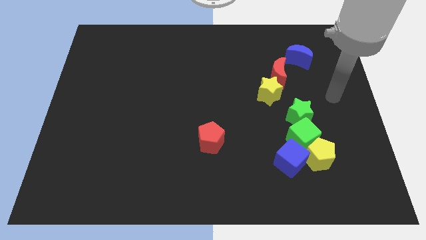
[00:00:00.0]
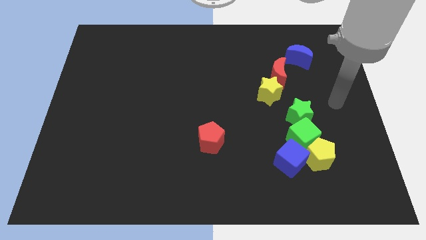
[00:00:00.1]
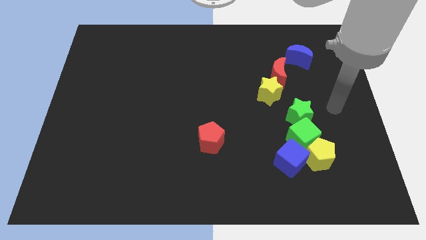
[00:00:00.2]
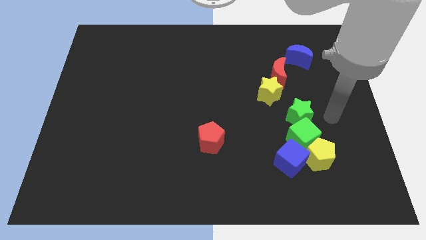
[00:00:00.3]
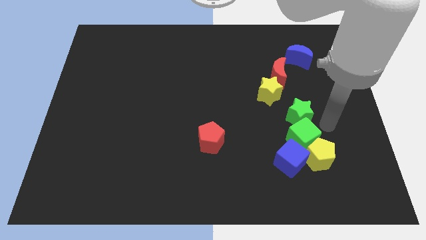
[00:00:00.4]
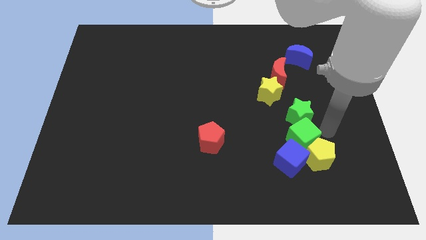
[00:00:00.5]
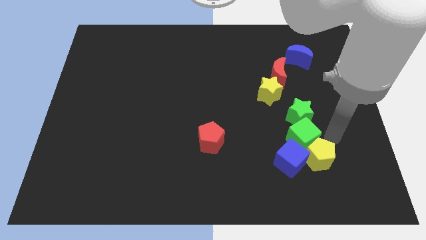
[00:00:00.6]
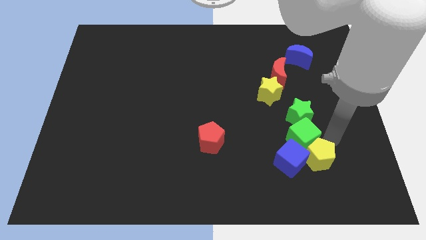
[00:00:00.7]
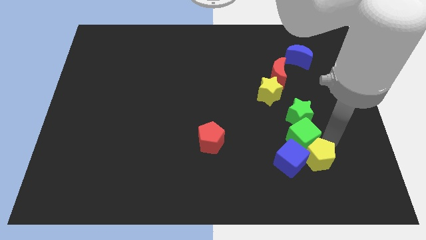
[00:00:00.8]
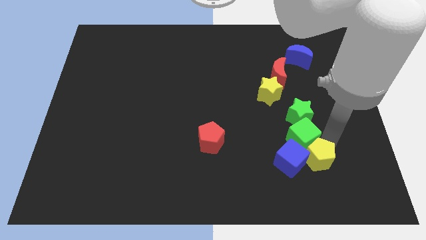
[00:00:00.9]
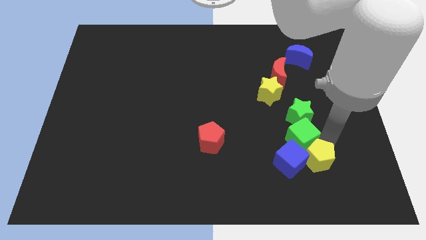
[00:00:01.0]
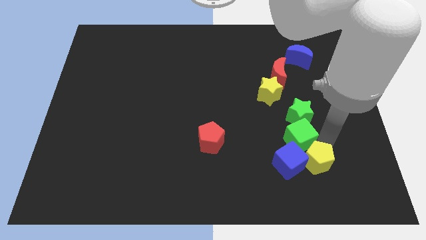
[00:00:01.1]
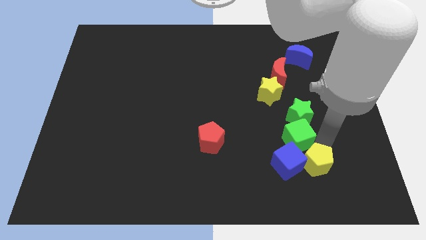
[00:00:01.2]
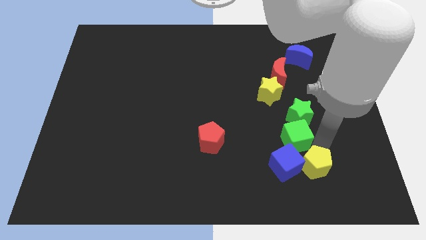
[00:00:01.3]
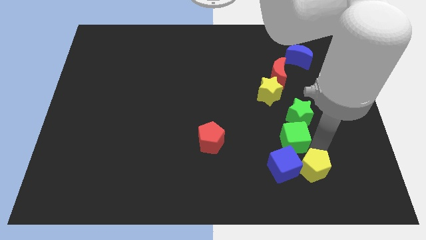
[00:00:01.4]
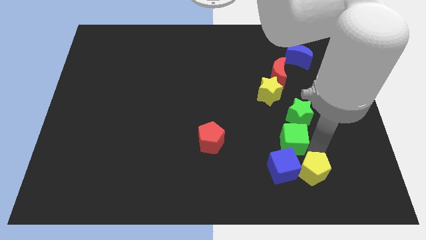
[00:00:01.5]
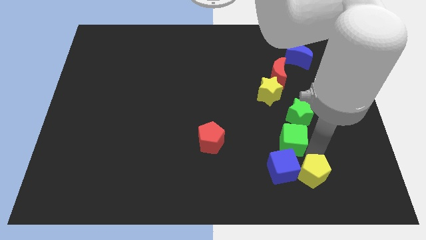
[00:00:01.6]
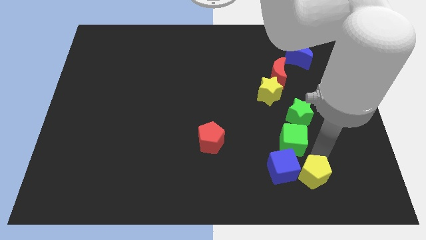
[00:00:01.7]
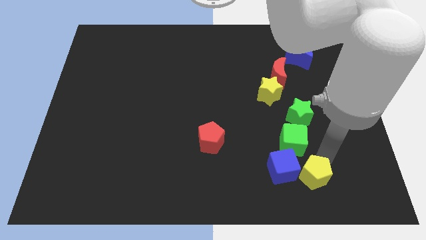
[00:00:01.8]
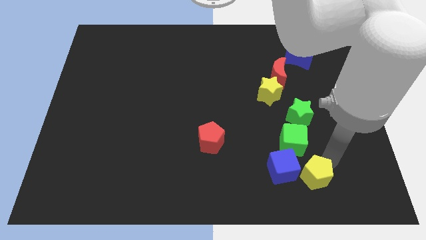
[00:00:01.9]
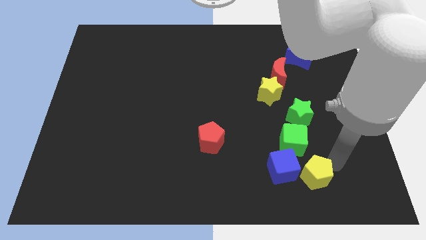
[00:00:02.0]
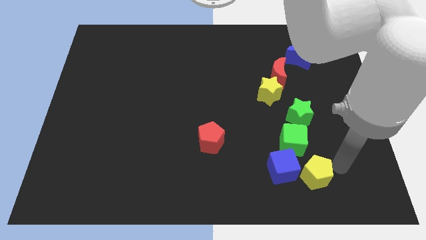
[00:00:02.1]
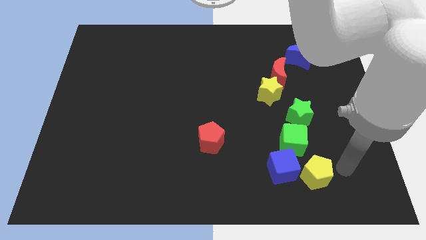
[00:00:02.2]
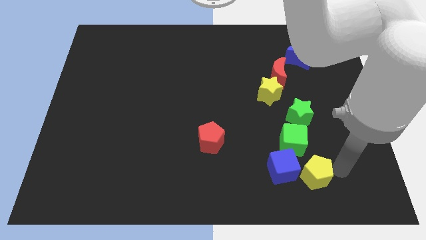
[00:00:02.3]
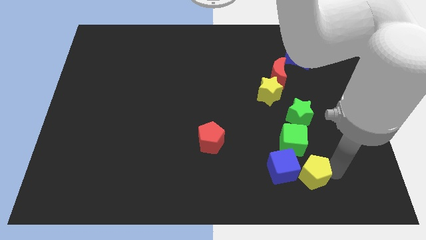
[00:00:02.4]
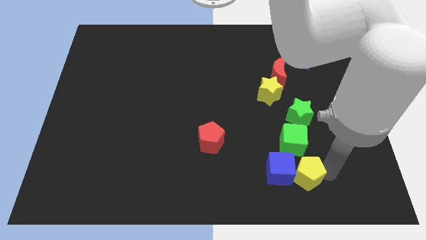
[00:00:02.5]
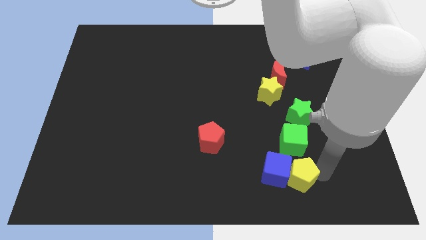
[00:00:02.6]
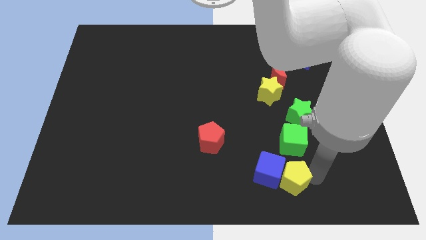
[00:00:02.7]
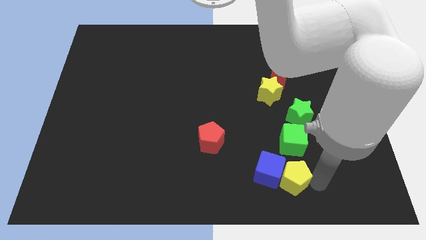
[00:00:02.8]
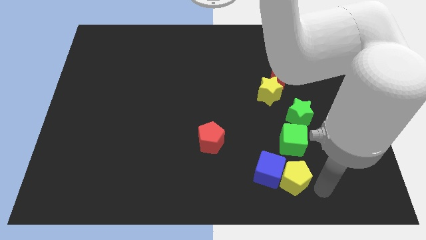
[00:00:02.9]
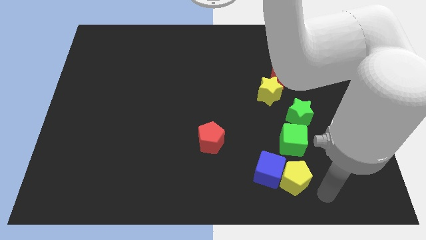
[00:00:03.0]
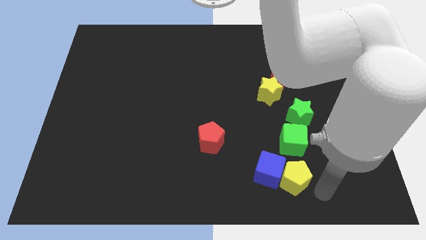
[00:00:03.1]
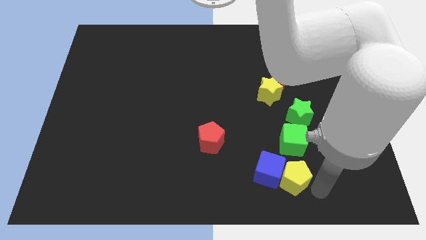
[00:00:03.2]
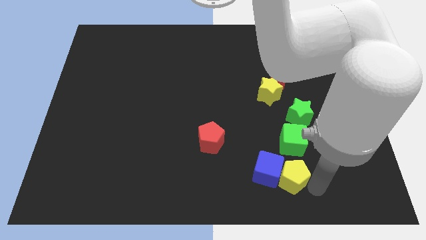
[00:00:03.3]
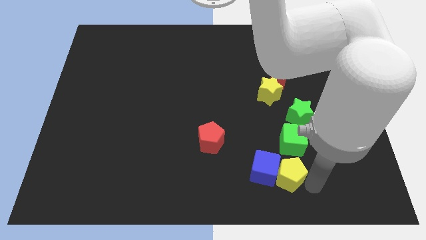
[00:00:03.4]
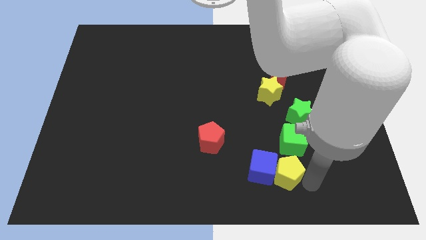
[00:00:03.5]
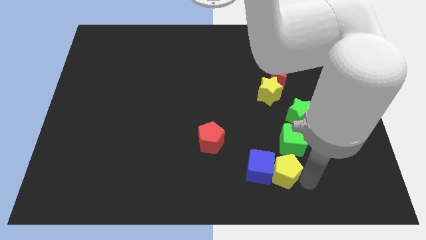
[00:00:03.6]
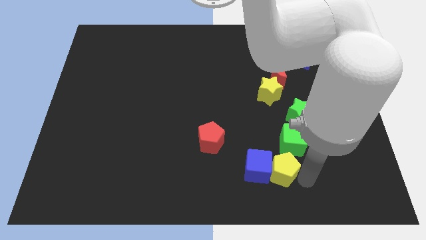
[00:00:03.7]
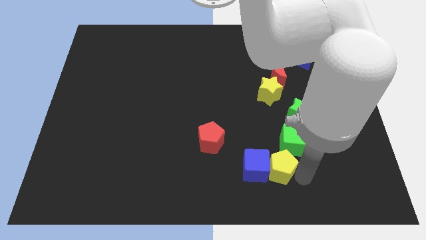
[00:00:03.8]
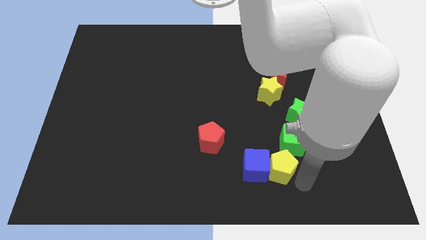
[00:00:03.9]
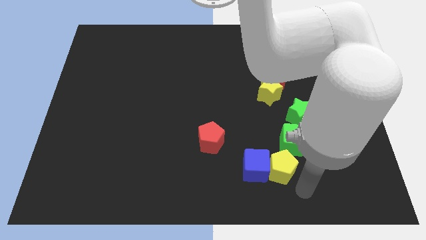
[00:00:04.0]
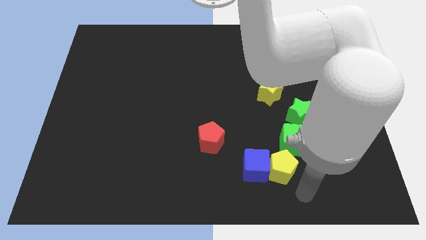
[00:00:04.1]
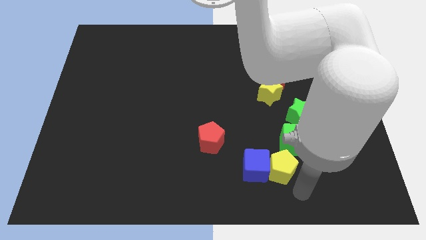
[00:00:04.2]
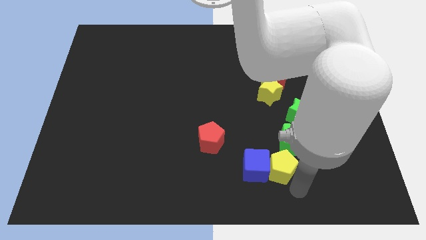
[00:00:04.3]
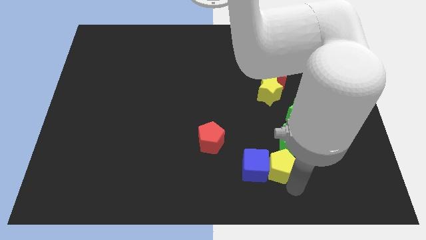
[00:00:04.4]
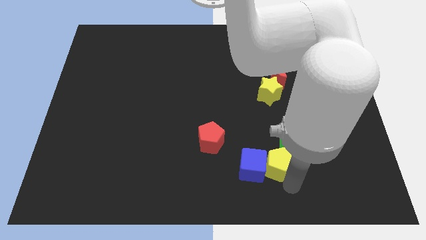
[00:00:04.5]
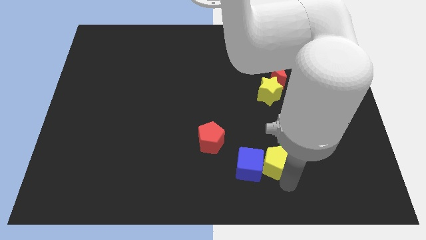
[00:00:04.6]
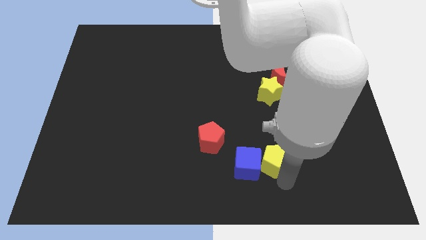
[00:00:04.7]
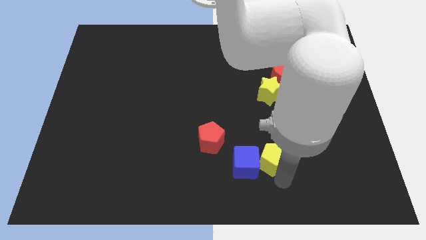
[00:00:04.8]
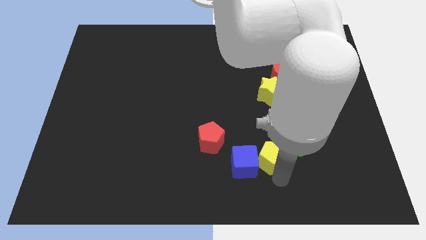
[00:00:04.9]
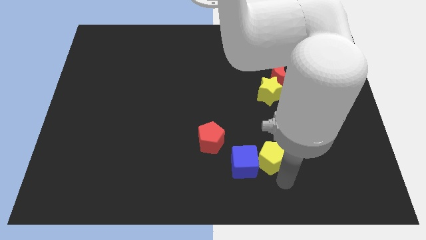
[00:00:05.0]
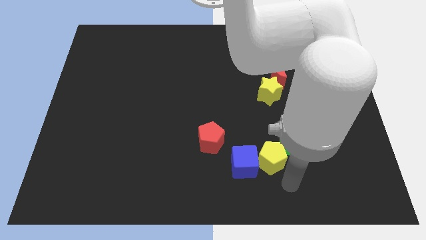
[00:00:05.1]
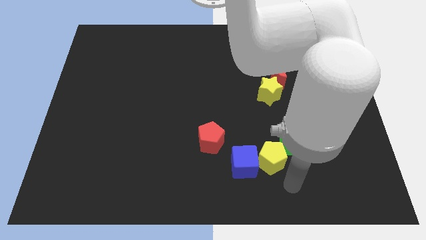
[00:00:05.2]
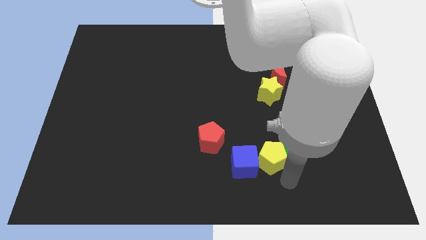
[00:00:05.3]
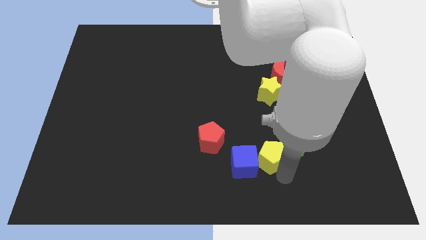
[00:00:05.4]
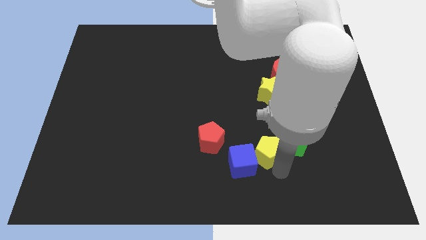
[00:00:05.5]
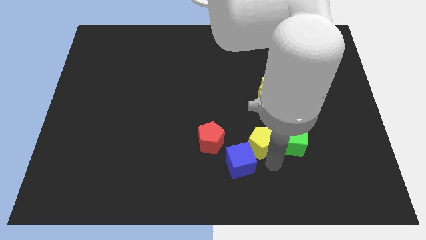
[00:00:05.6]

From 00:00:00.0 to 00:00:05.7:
slightly slide the yellow pentagon diagonally upwards and left

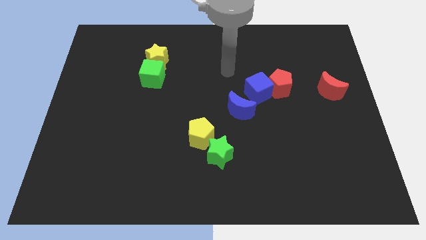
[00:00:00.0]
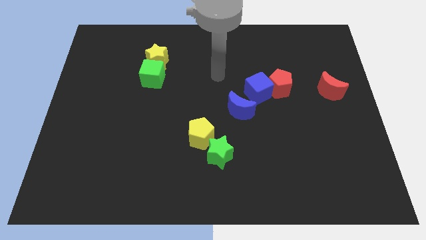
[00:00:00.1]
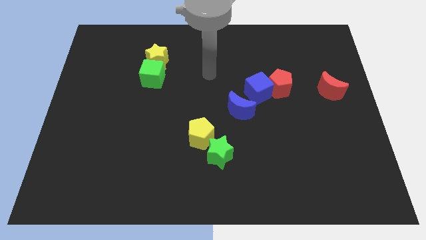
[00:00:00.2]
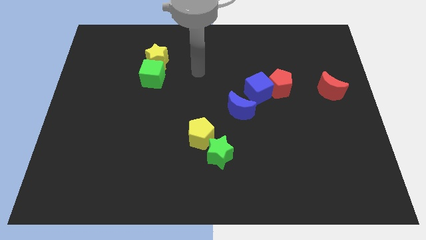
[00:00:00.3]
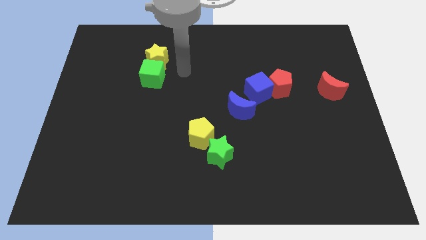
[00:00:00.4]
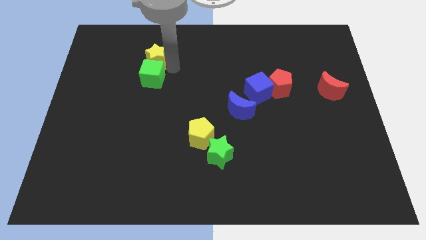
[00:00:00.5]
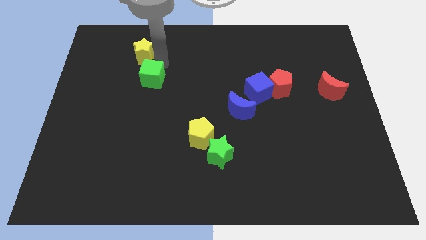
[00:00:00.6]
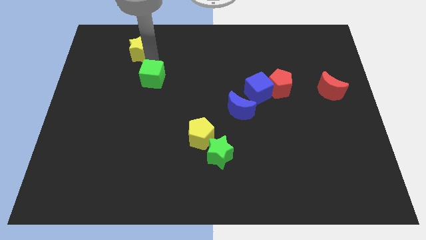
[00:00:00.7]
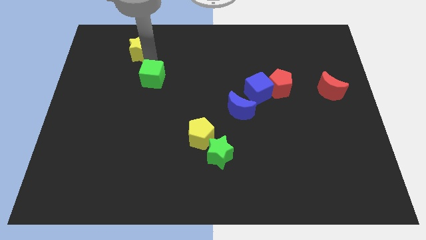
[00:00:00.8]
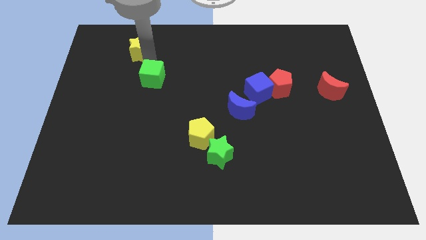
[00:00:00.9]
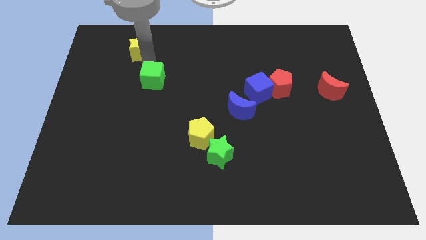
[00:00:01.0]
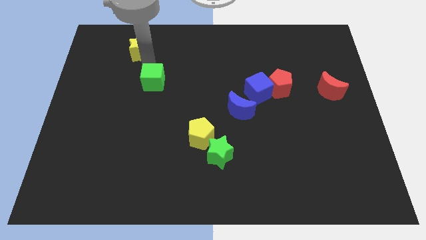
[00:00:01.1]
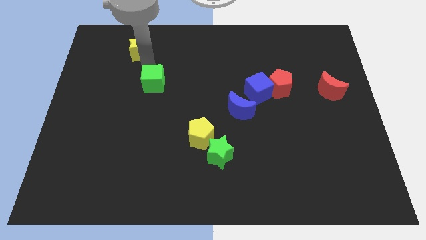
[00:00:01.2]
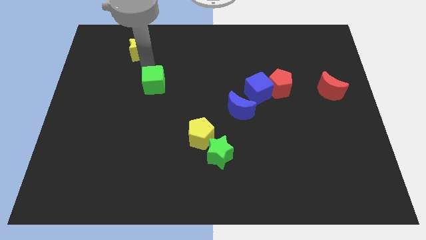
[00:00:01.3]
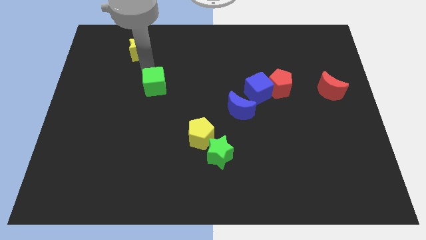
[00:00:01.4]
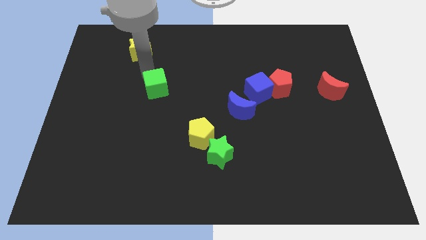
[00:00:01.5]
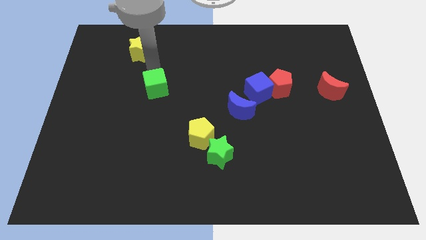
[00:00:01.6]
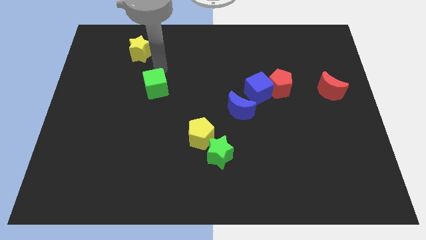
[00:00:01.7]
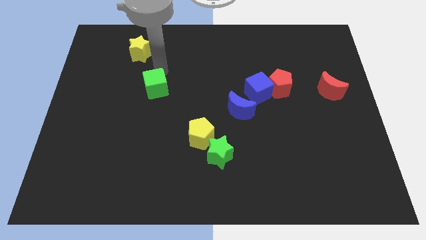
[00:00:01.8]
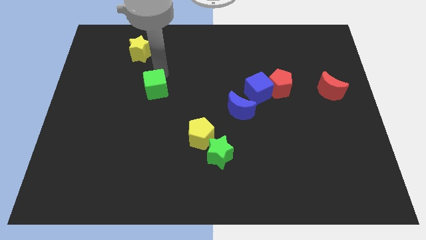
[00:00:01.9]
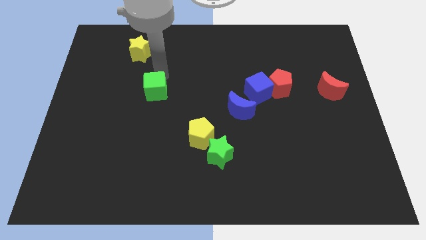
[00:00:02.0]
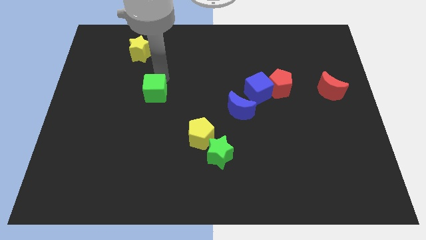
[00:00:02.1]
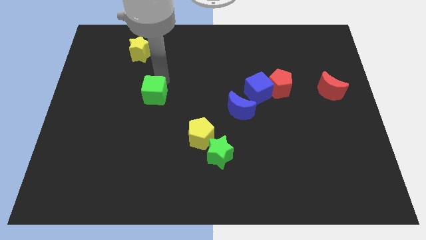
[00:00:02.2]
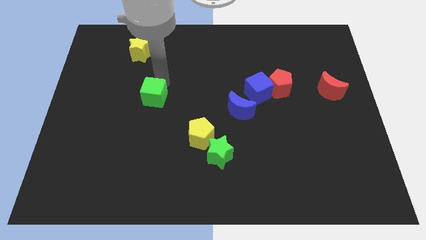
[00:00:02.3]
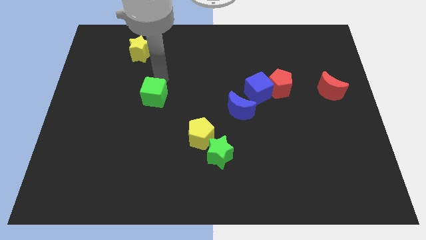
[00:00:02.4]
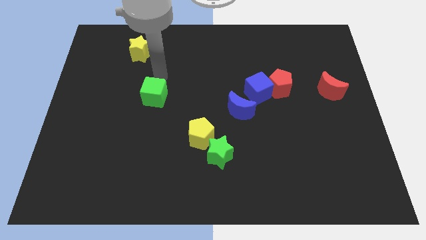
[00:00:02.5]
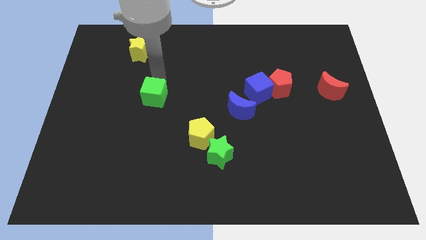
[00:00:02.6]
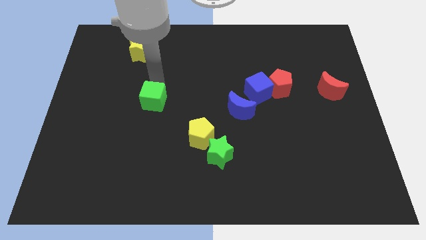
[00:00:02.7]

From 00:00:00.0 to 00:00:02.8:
slide the green cube slightly down
